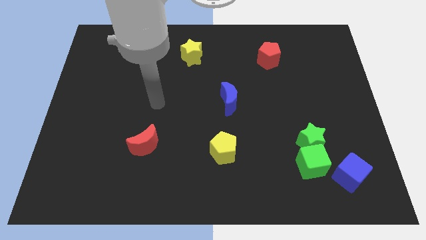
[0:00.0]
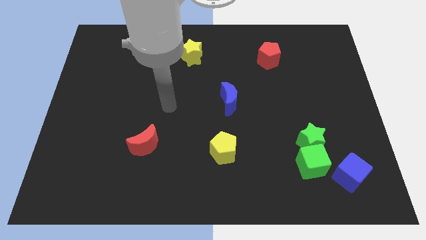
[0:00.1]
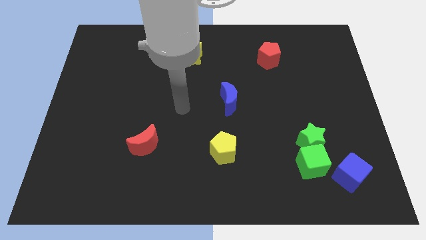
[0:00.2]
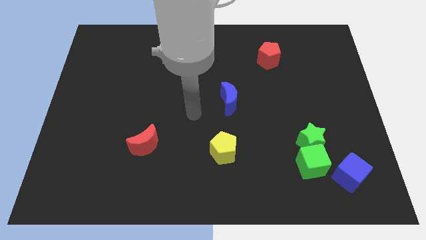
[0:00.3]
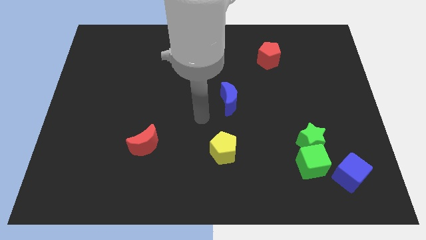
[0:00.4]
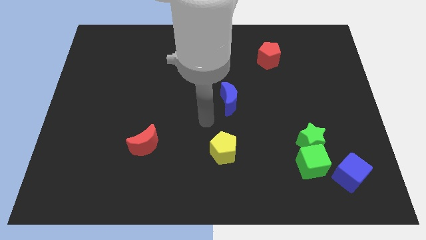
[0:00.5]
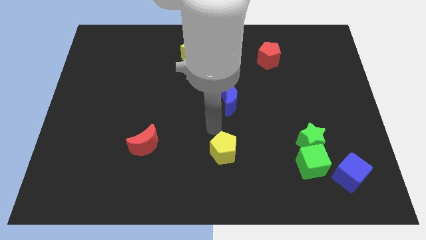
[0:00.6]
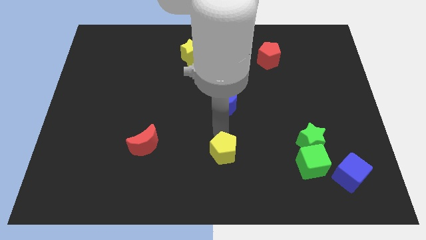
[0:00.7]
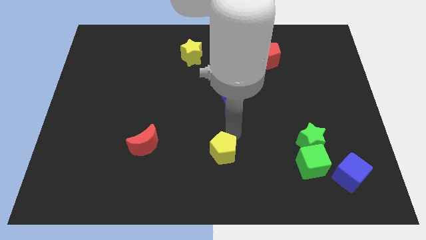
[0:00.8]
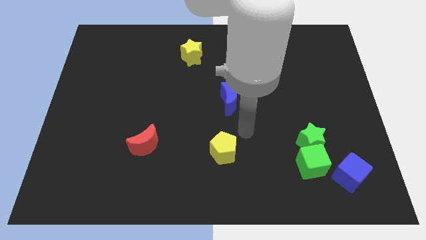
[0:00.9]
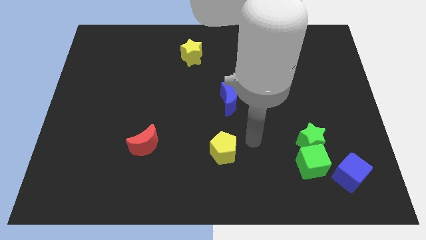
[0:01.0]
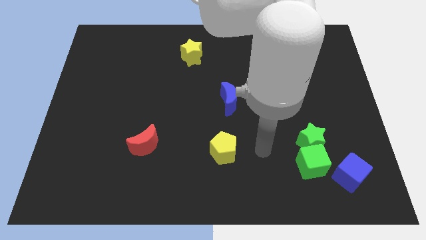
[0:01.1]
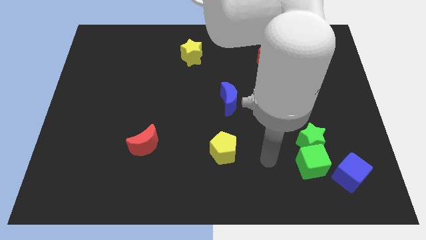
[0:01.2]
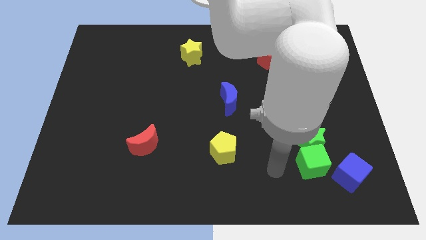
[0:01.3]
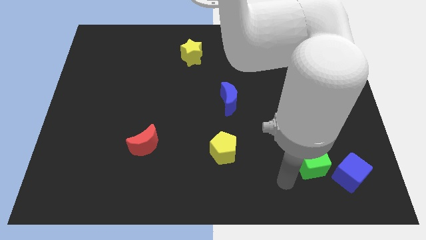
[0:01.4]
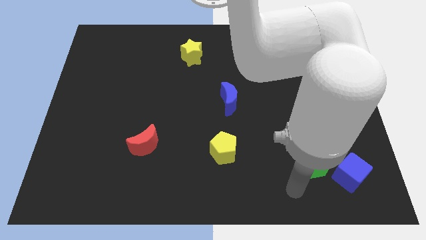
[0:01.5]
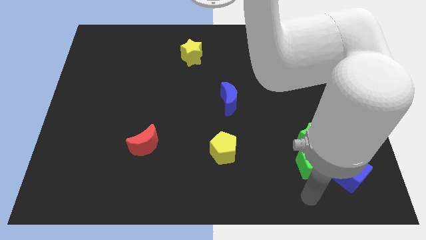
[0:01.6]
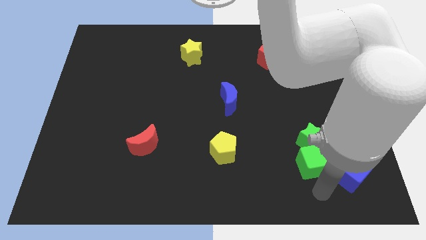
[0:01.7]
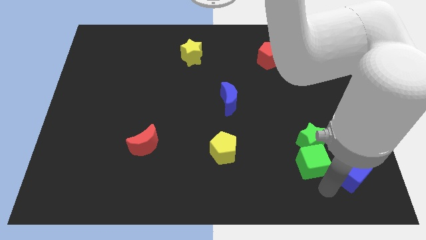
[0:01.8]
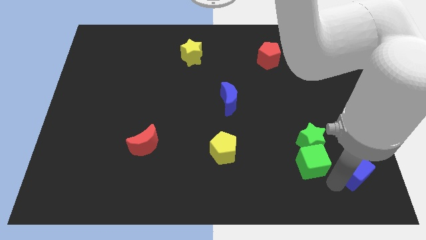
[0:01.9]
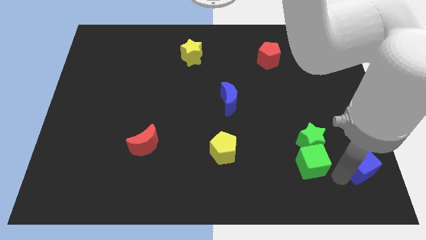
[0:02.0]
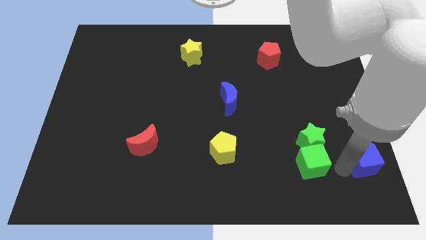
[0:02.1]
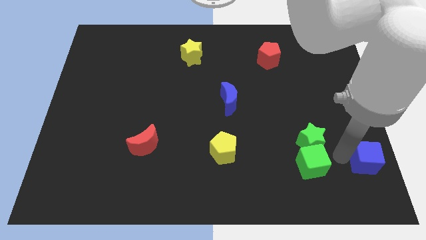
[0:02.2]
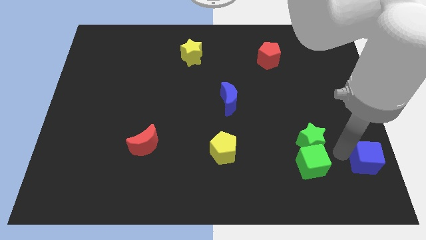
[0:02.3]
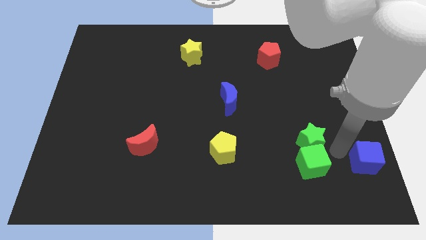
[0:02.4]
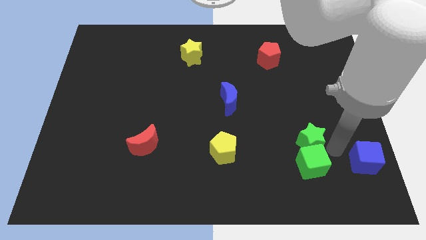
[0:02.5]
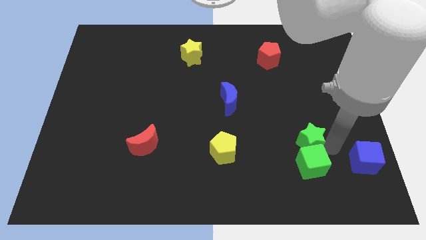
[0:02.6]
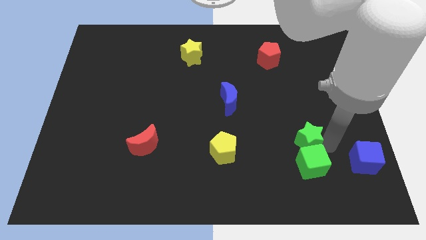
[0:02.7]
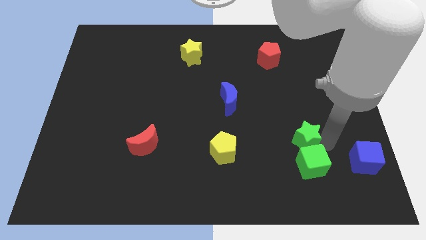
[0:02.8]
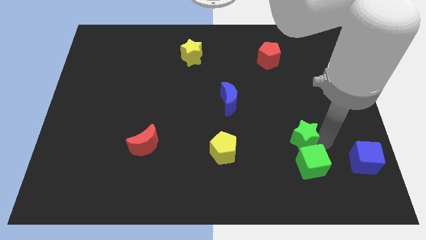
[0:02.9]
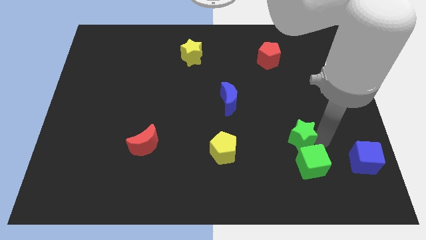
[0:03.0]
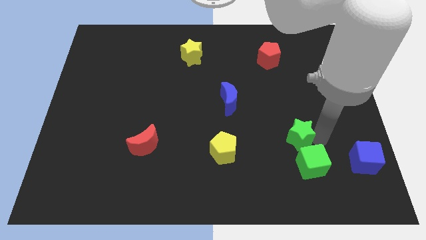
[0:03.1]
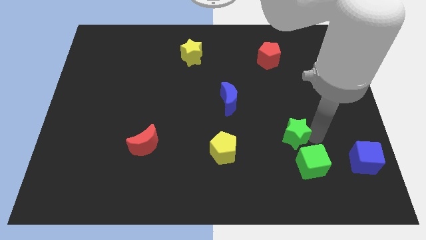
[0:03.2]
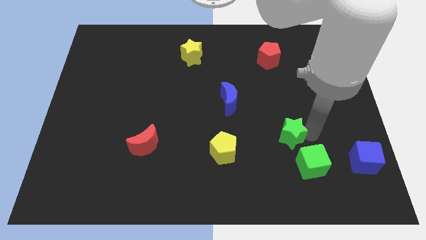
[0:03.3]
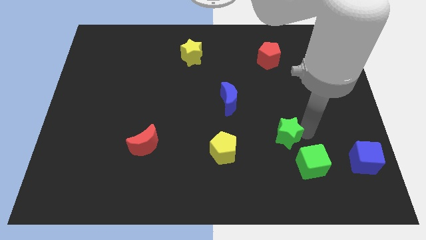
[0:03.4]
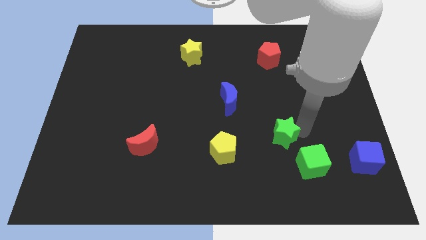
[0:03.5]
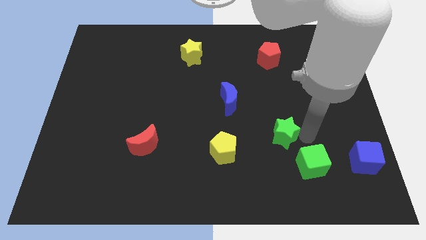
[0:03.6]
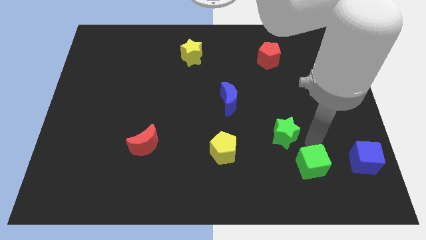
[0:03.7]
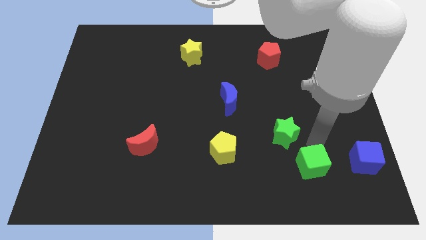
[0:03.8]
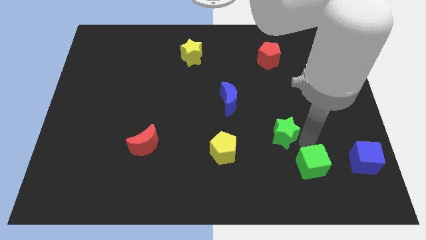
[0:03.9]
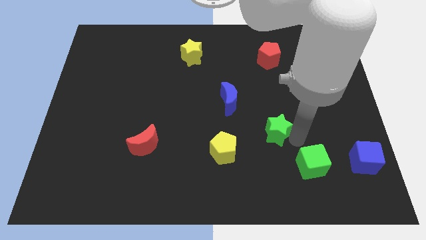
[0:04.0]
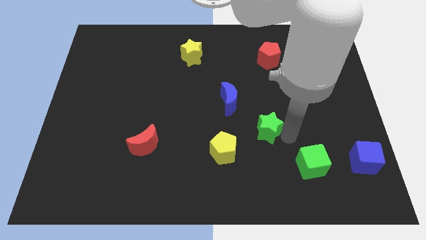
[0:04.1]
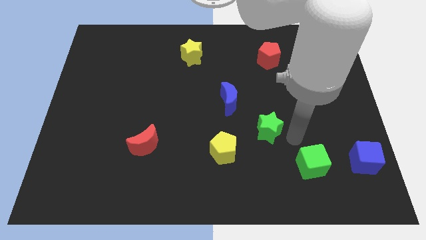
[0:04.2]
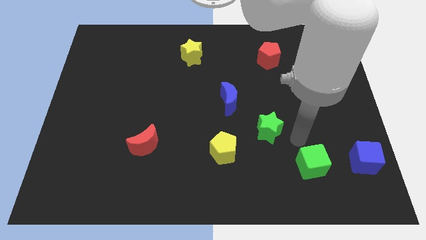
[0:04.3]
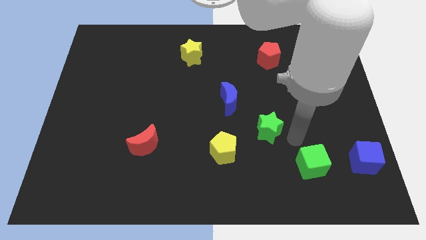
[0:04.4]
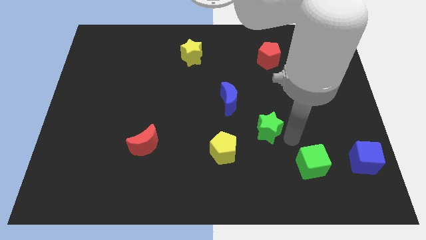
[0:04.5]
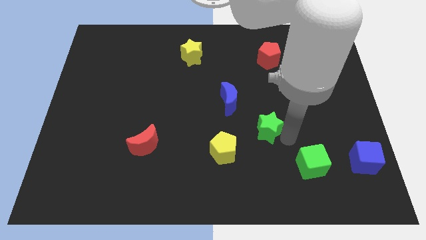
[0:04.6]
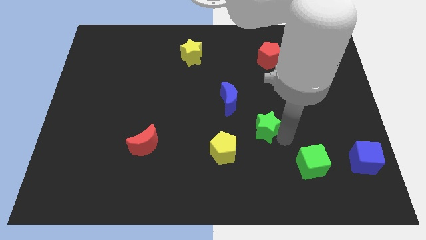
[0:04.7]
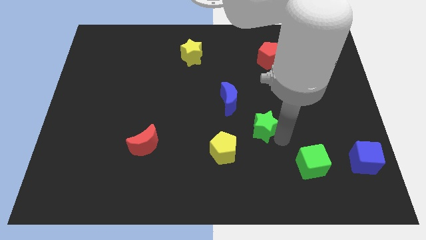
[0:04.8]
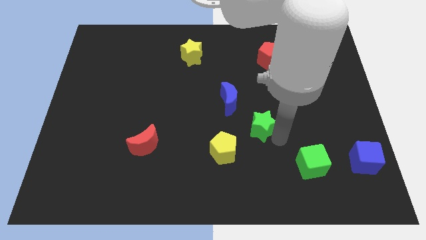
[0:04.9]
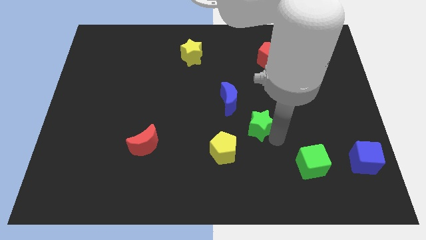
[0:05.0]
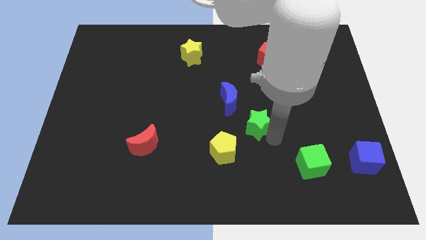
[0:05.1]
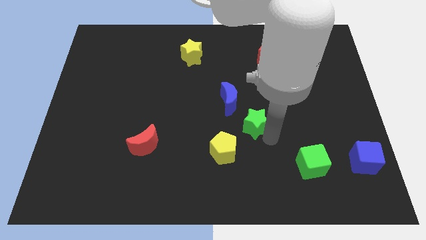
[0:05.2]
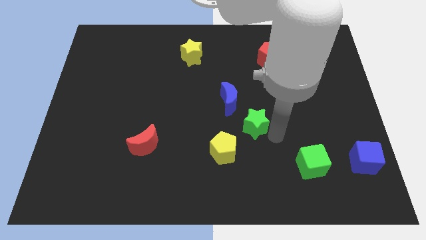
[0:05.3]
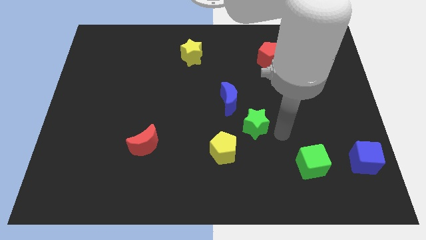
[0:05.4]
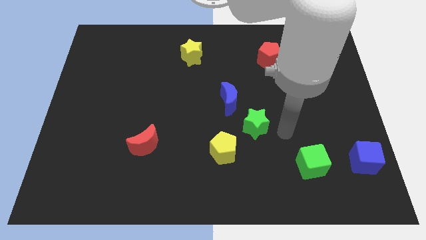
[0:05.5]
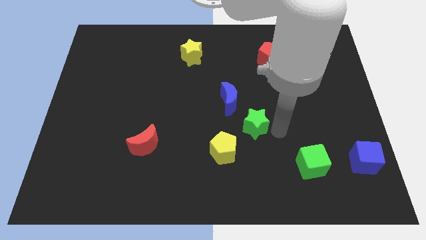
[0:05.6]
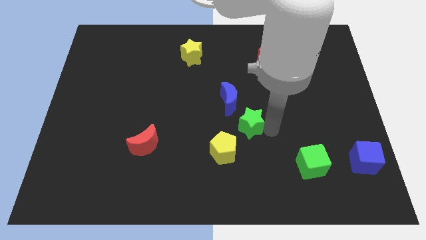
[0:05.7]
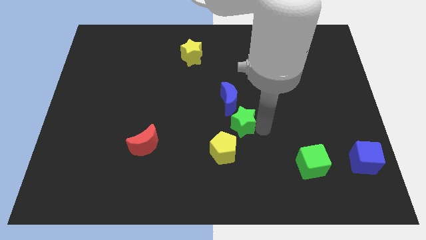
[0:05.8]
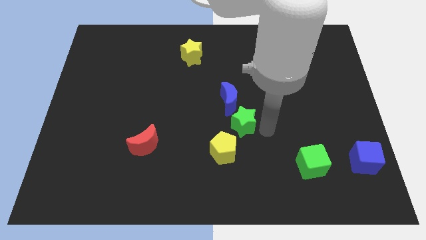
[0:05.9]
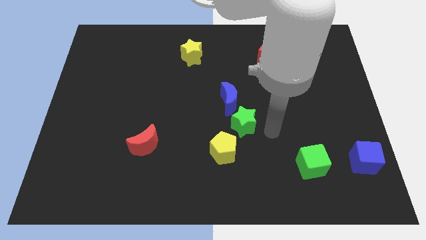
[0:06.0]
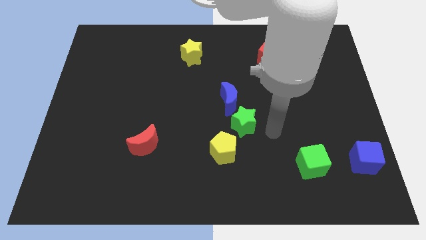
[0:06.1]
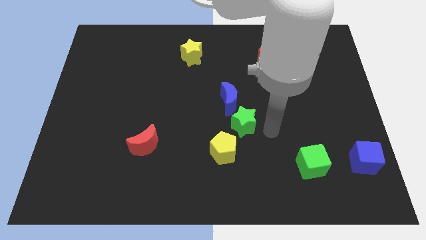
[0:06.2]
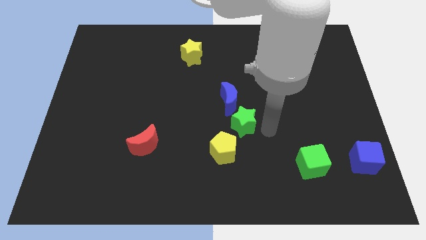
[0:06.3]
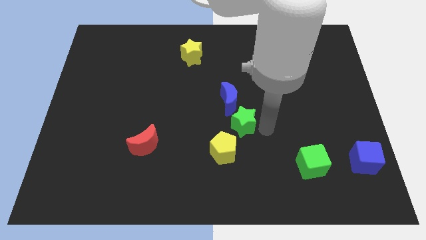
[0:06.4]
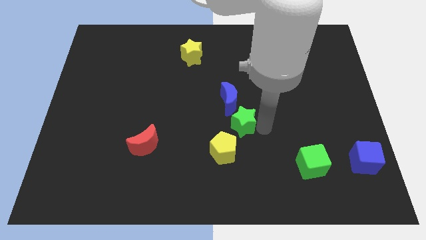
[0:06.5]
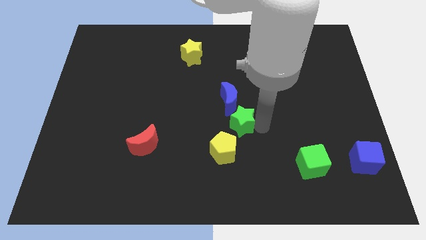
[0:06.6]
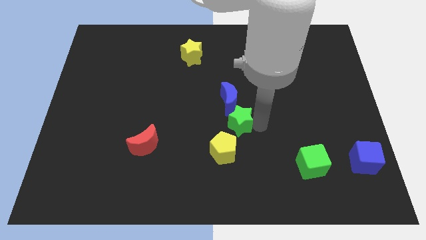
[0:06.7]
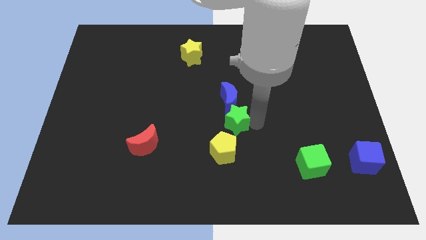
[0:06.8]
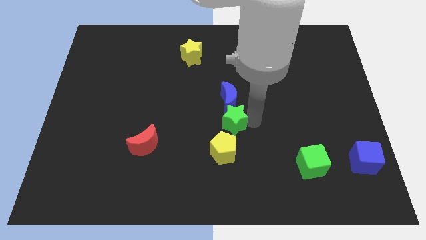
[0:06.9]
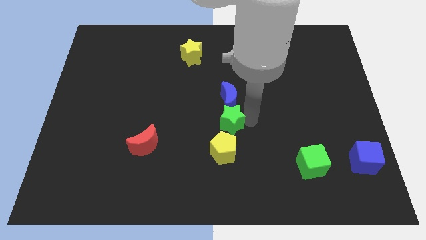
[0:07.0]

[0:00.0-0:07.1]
move the green star diagonally down and to the left of the blue moon

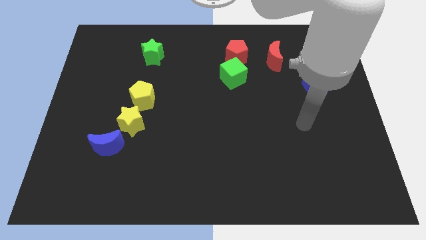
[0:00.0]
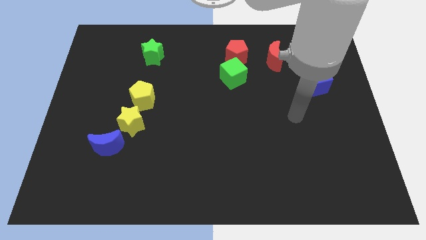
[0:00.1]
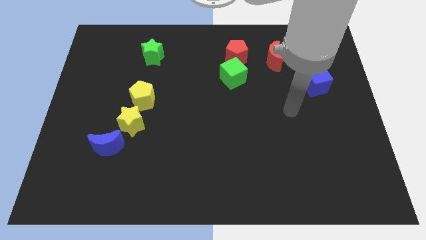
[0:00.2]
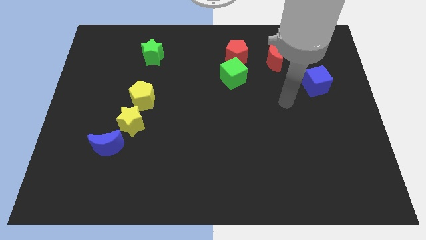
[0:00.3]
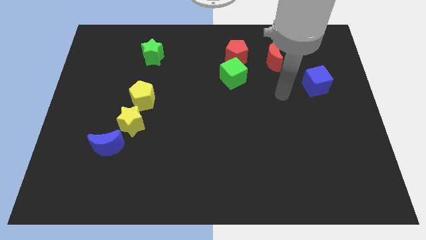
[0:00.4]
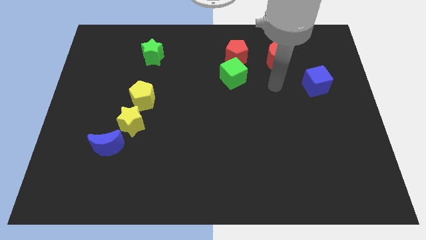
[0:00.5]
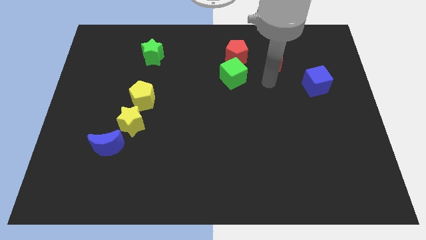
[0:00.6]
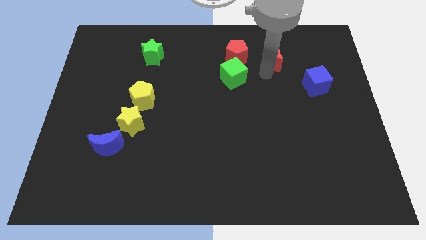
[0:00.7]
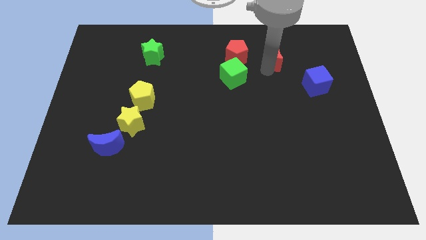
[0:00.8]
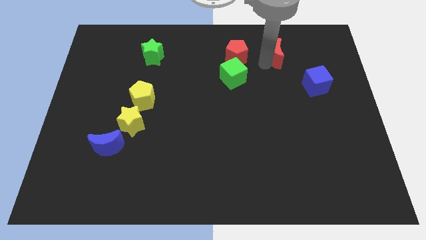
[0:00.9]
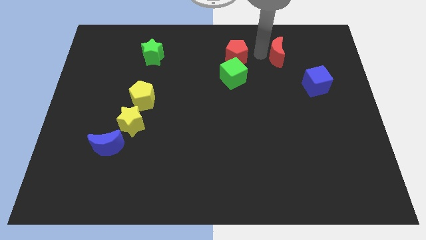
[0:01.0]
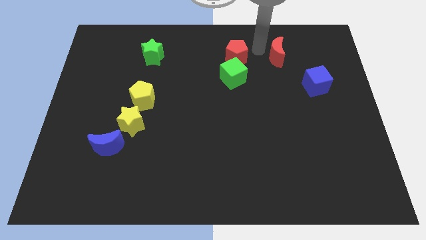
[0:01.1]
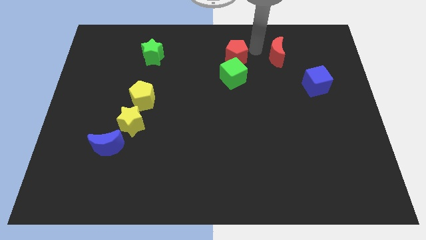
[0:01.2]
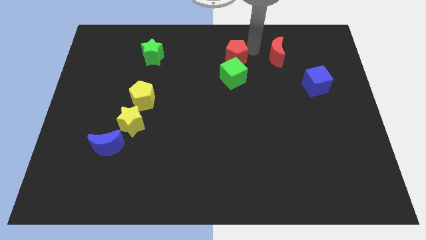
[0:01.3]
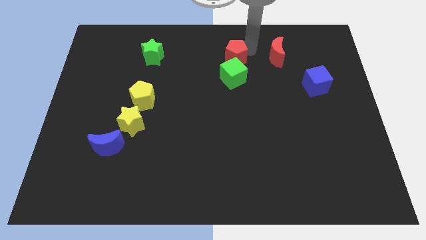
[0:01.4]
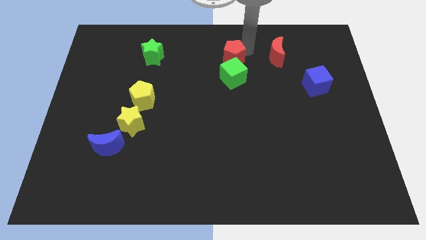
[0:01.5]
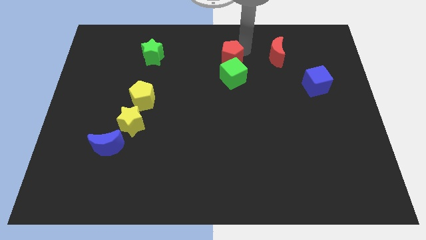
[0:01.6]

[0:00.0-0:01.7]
slide the red pentagon to the top left side of the green cube
